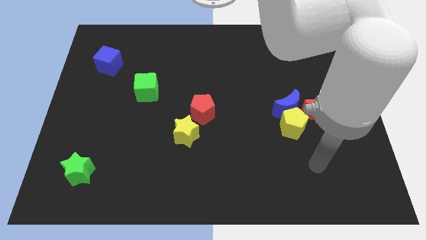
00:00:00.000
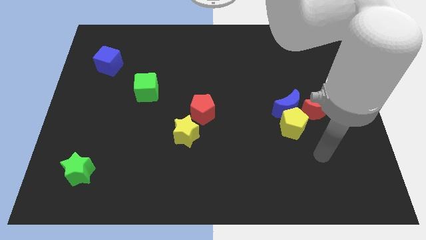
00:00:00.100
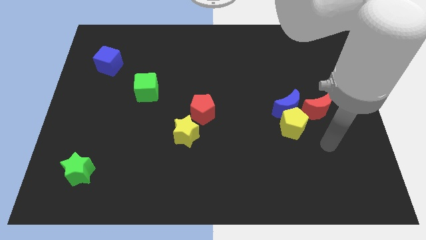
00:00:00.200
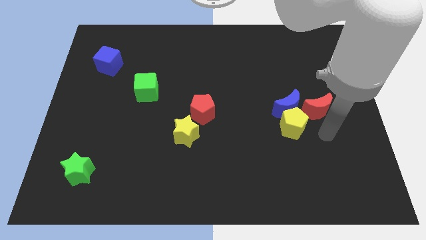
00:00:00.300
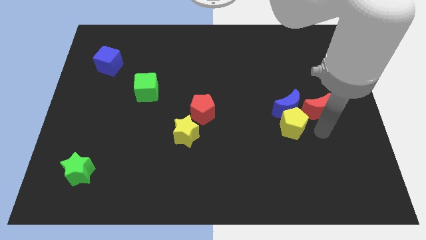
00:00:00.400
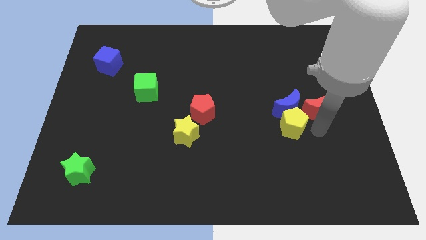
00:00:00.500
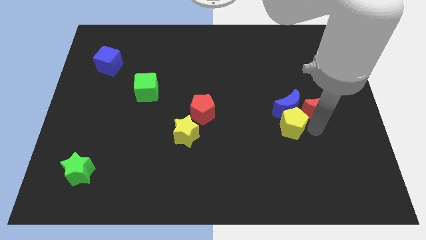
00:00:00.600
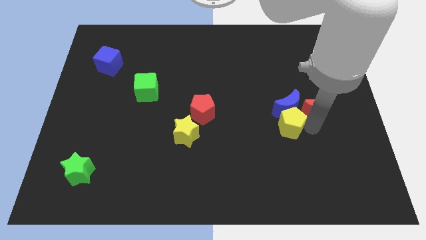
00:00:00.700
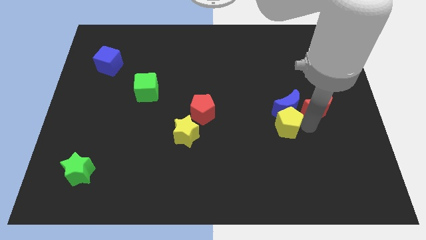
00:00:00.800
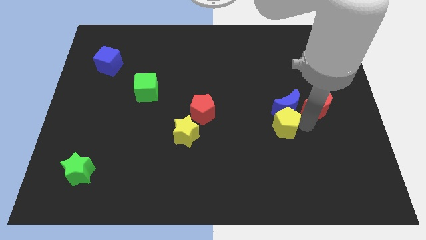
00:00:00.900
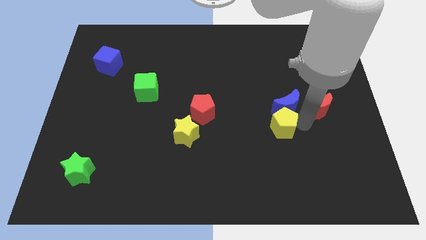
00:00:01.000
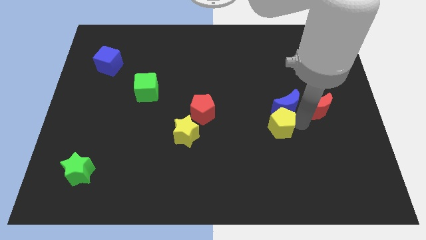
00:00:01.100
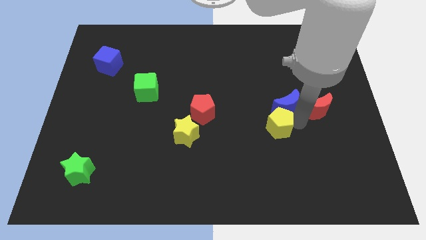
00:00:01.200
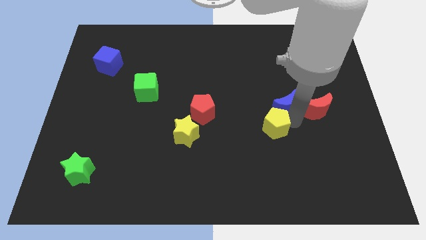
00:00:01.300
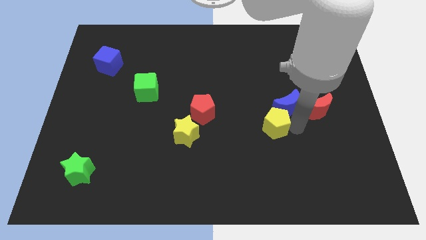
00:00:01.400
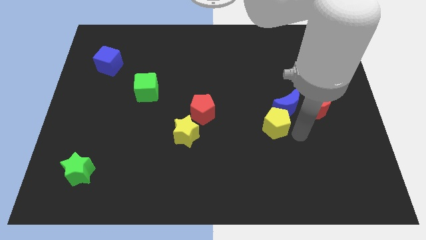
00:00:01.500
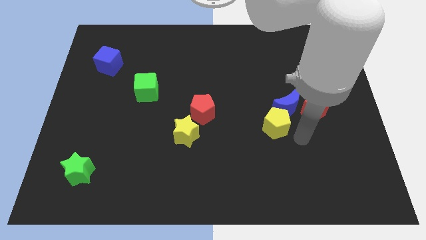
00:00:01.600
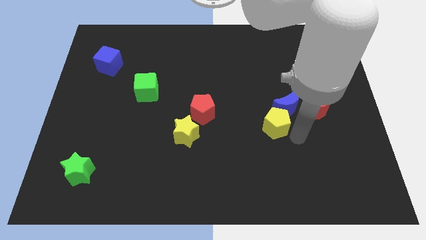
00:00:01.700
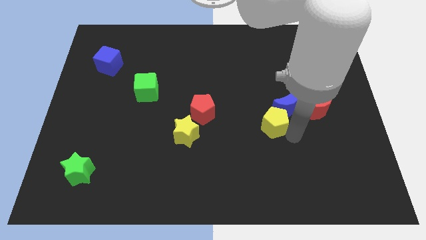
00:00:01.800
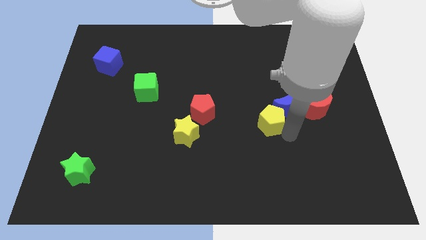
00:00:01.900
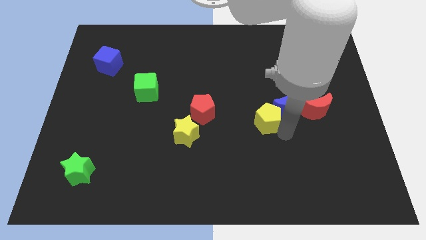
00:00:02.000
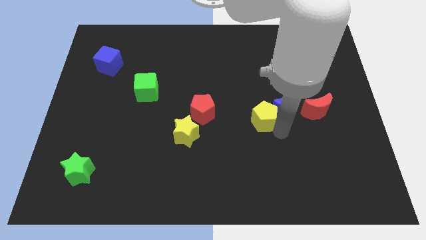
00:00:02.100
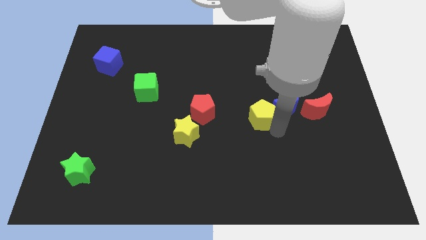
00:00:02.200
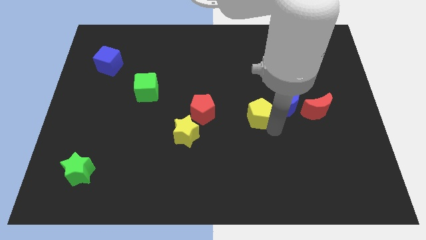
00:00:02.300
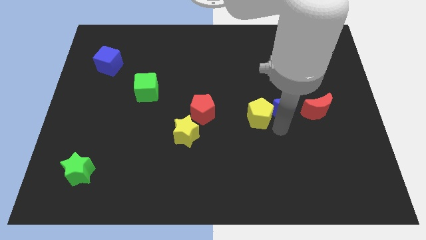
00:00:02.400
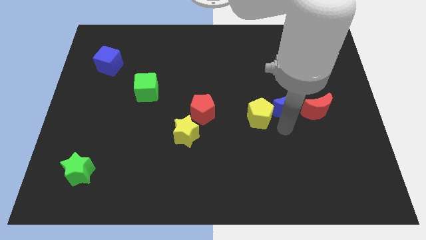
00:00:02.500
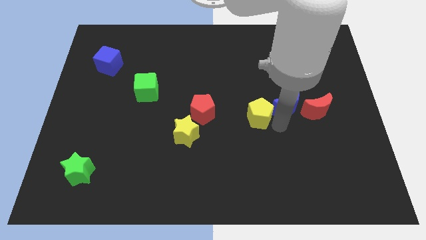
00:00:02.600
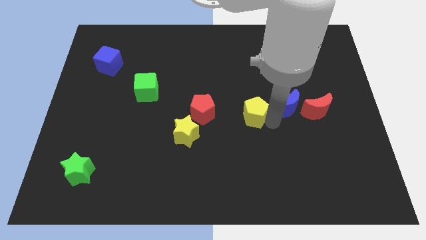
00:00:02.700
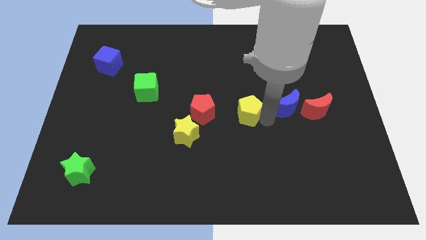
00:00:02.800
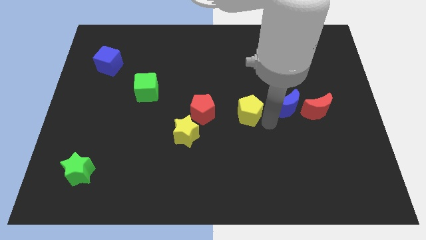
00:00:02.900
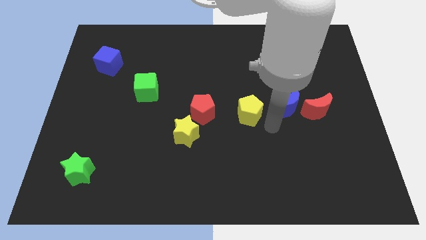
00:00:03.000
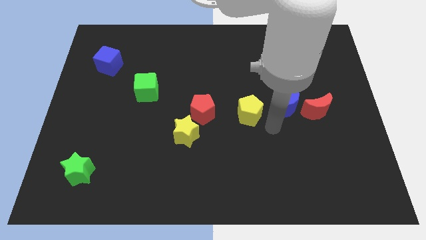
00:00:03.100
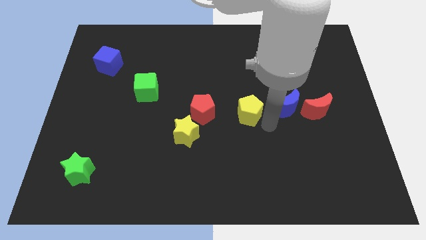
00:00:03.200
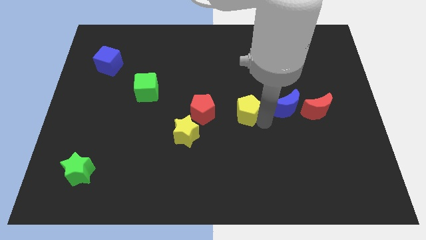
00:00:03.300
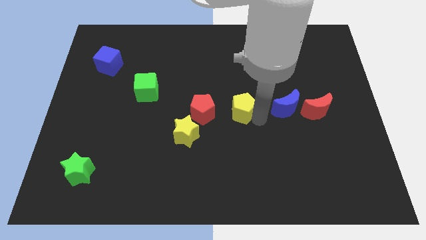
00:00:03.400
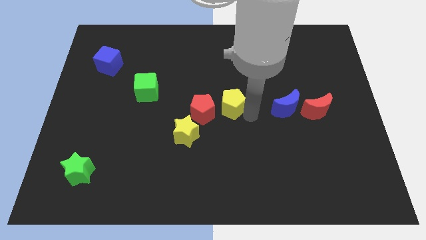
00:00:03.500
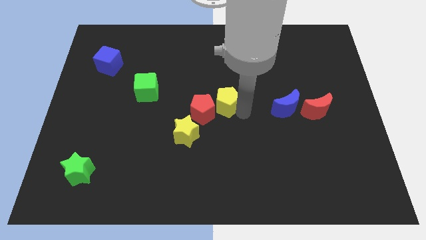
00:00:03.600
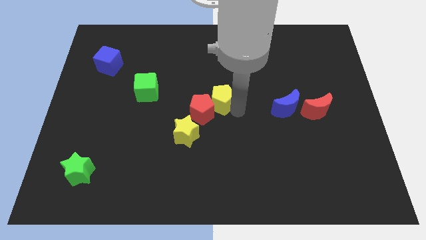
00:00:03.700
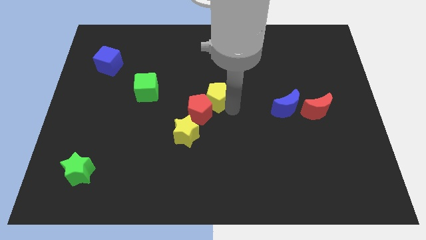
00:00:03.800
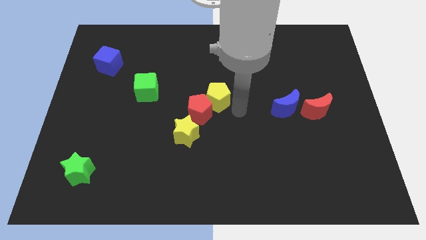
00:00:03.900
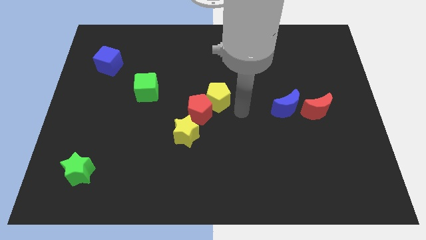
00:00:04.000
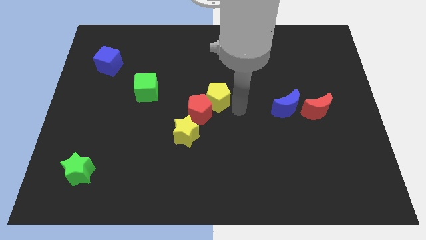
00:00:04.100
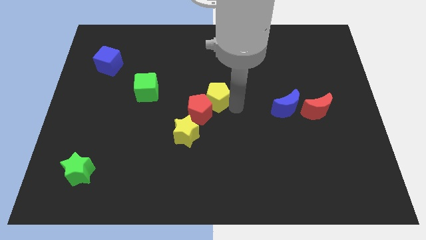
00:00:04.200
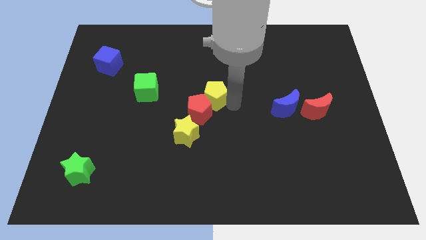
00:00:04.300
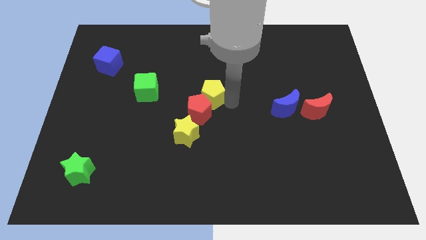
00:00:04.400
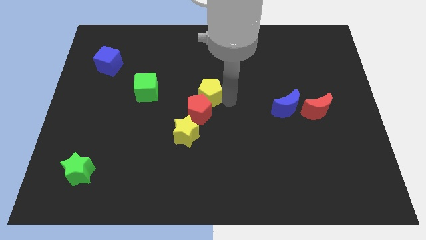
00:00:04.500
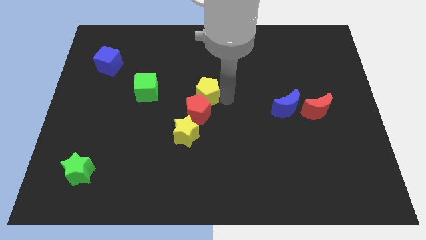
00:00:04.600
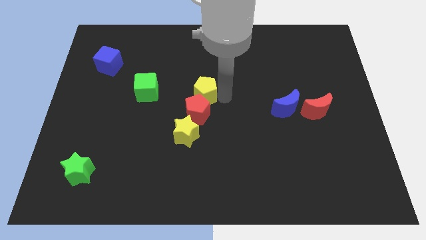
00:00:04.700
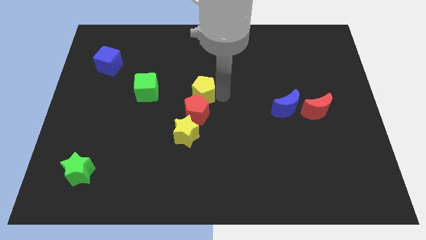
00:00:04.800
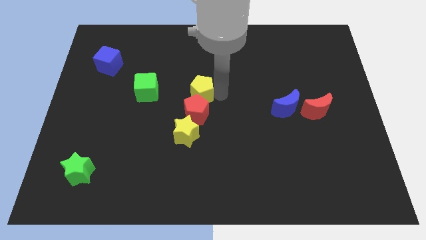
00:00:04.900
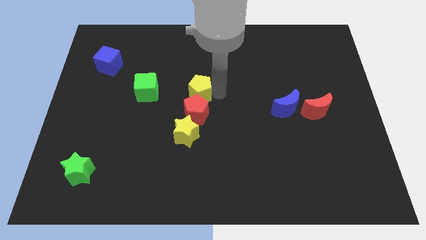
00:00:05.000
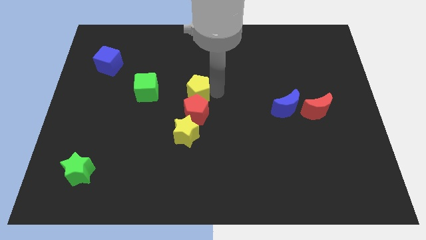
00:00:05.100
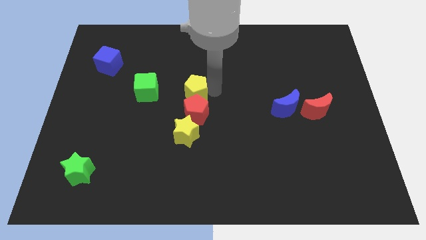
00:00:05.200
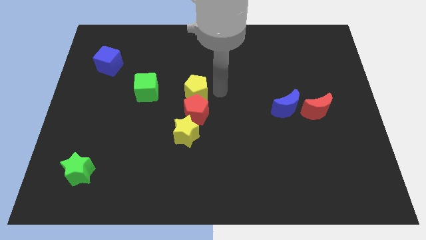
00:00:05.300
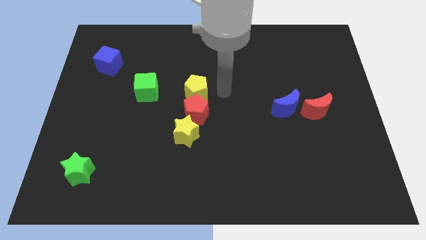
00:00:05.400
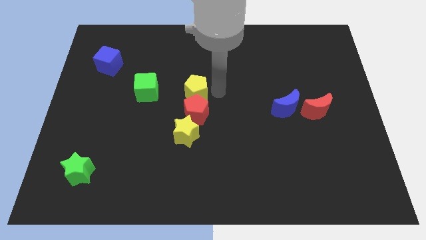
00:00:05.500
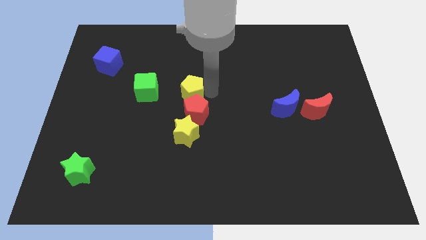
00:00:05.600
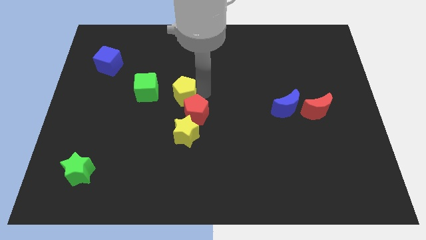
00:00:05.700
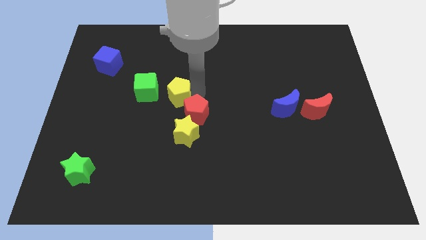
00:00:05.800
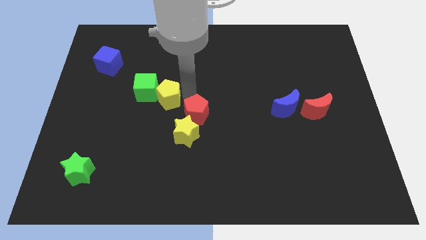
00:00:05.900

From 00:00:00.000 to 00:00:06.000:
put the yellow pentagon next to the green cube

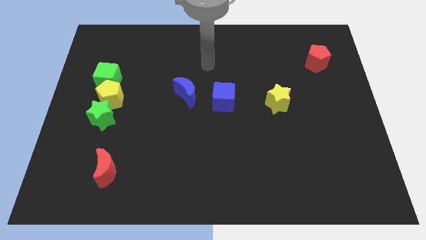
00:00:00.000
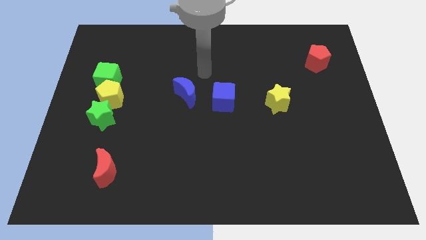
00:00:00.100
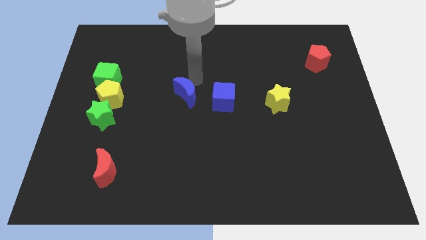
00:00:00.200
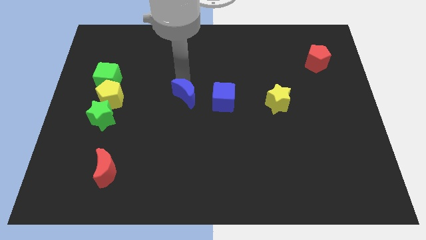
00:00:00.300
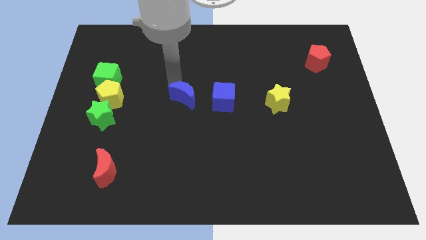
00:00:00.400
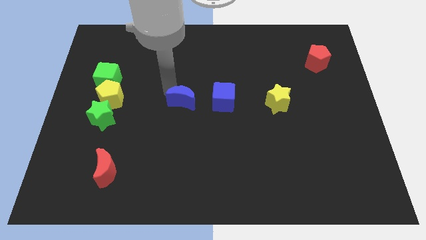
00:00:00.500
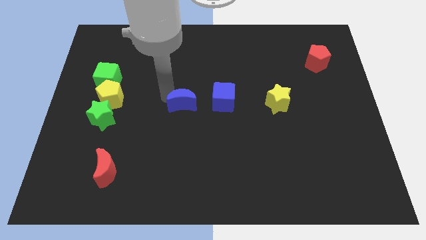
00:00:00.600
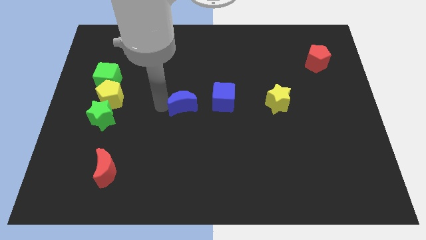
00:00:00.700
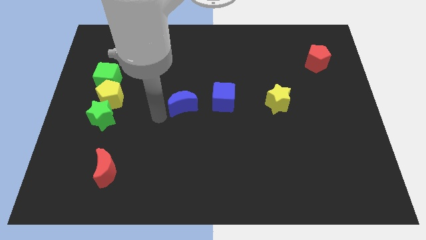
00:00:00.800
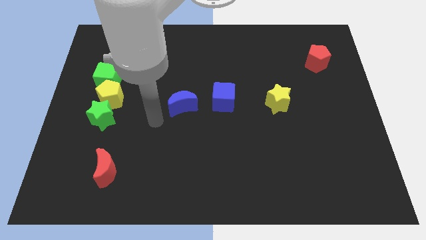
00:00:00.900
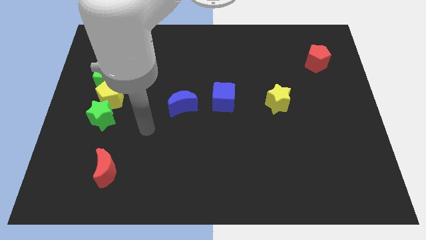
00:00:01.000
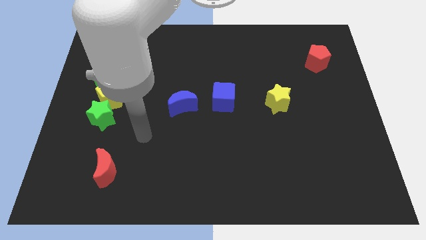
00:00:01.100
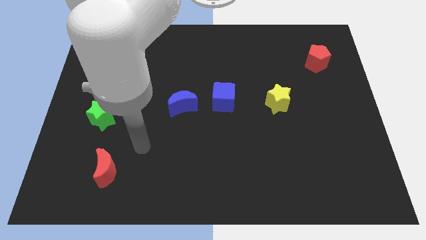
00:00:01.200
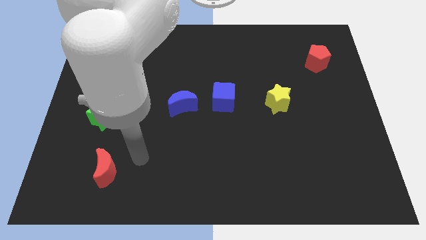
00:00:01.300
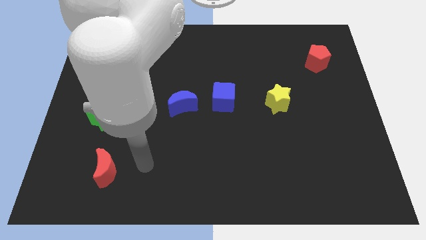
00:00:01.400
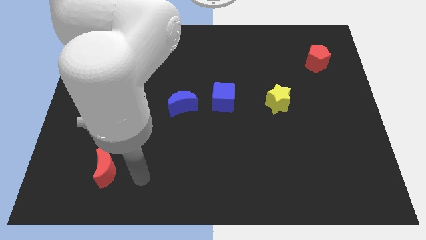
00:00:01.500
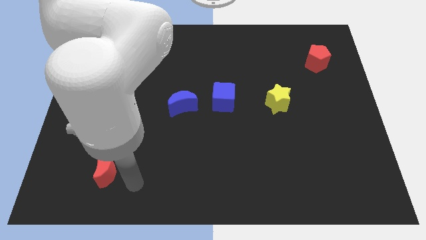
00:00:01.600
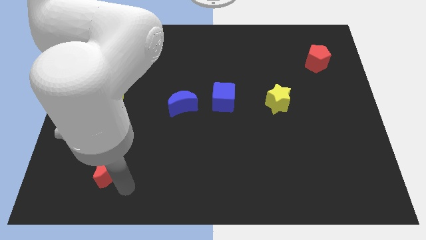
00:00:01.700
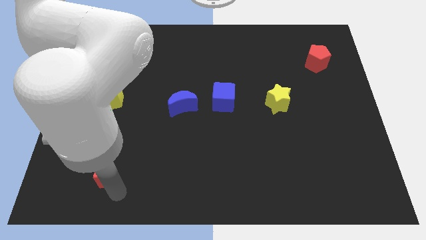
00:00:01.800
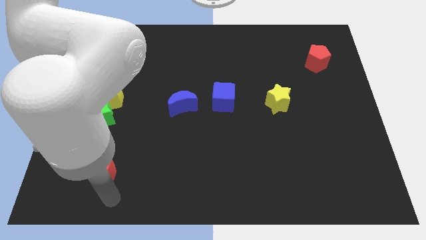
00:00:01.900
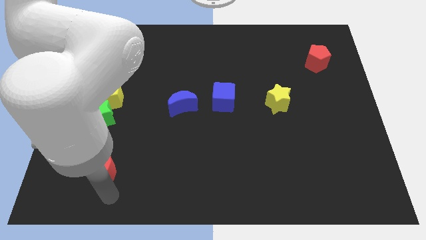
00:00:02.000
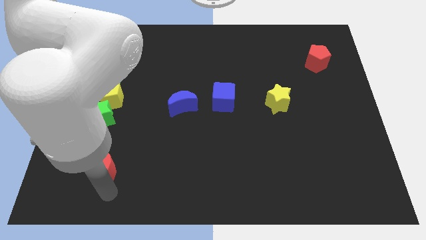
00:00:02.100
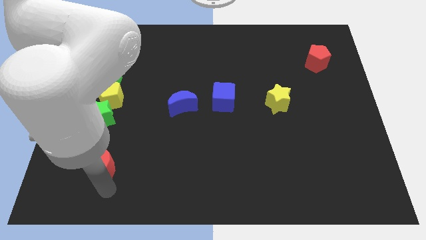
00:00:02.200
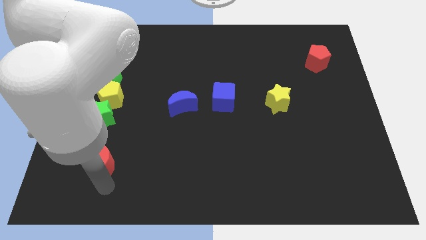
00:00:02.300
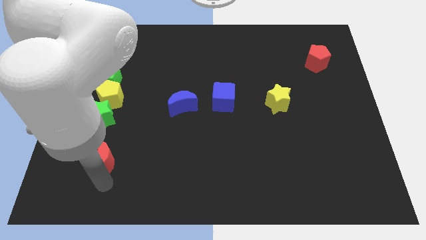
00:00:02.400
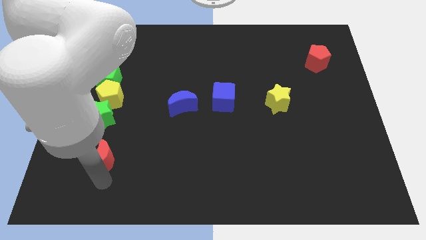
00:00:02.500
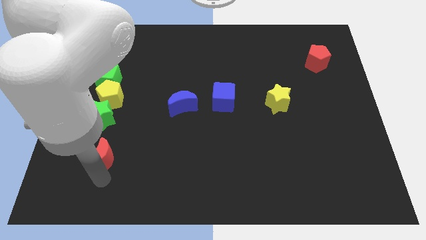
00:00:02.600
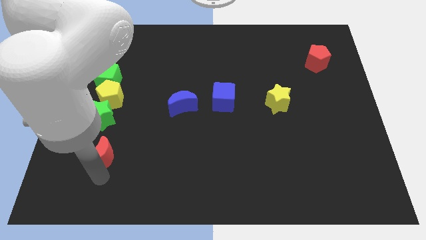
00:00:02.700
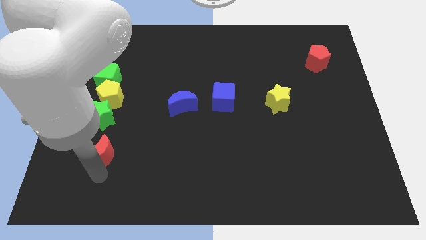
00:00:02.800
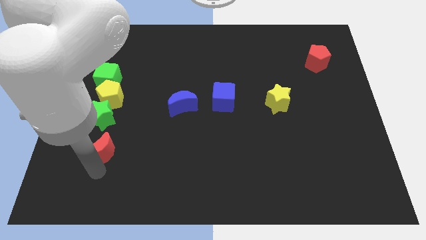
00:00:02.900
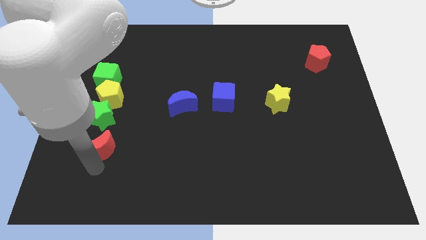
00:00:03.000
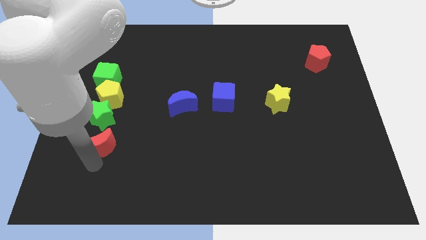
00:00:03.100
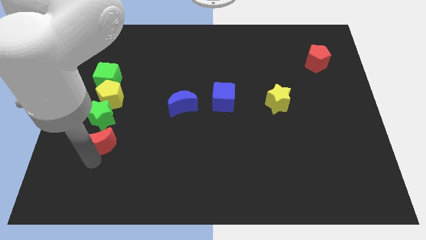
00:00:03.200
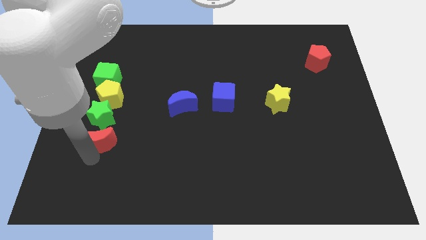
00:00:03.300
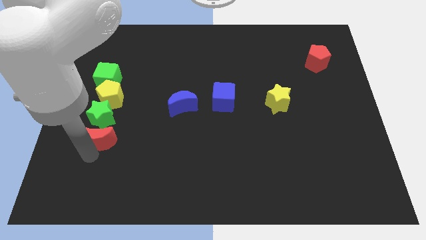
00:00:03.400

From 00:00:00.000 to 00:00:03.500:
slide the red moon to the green star
